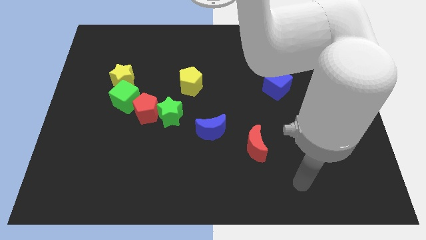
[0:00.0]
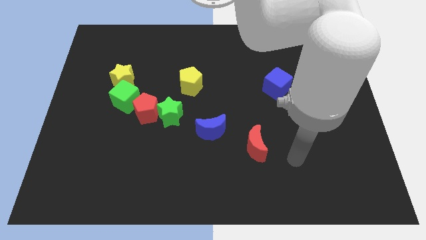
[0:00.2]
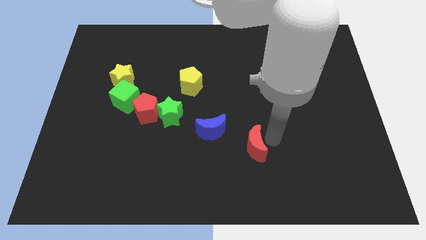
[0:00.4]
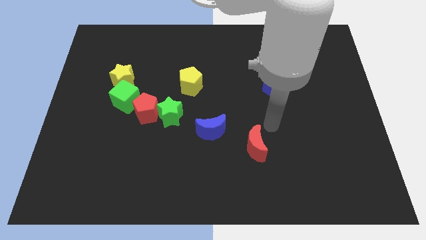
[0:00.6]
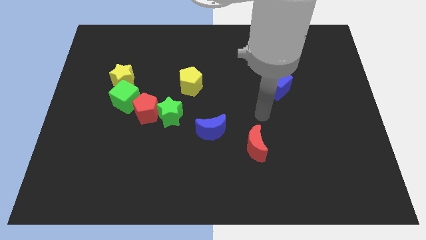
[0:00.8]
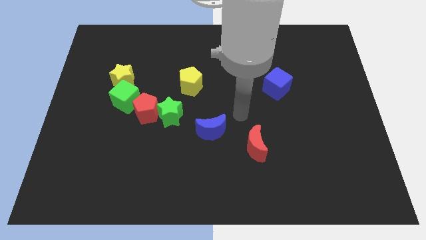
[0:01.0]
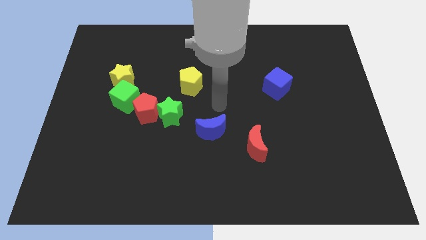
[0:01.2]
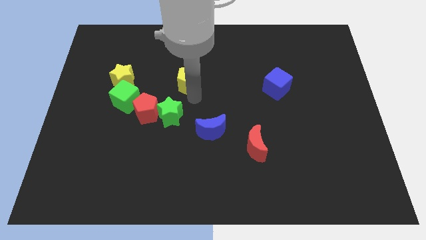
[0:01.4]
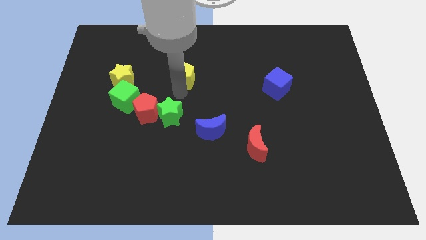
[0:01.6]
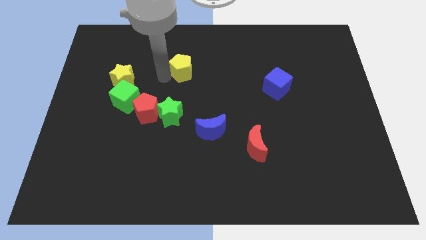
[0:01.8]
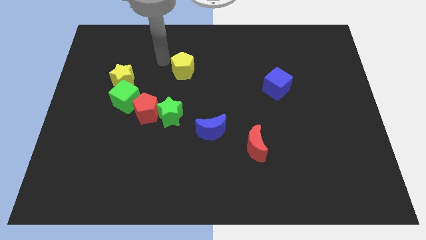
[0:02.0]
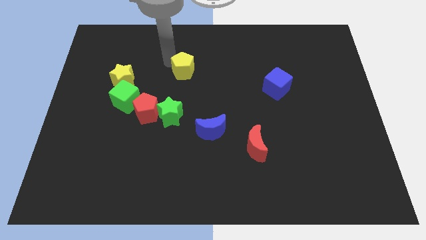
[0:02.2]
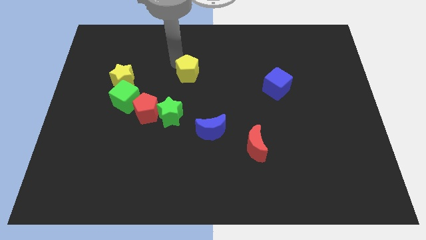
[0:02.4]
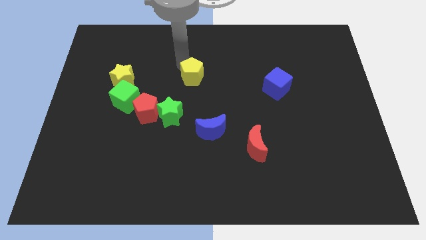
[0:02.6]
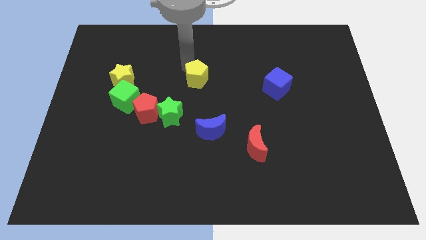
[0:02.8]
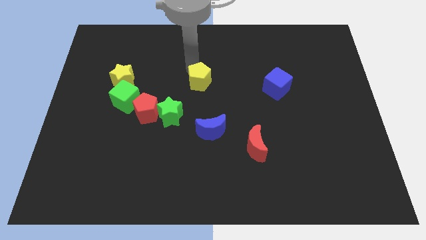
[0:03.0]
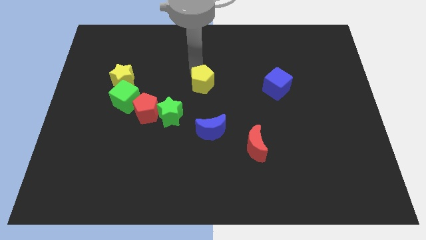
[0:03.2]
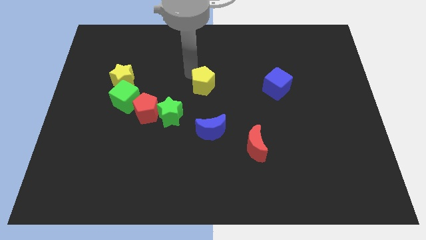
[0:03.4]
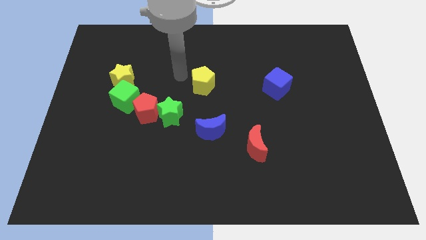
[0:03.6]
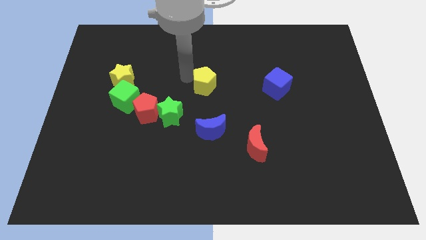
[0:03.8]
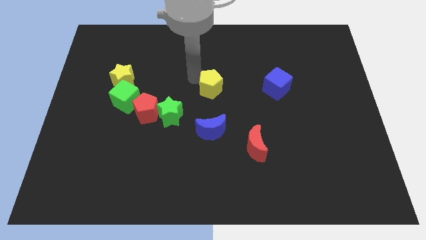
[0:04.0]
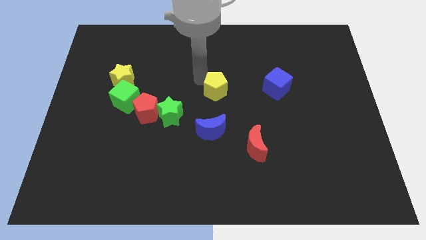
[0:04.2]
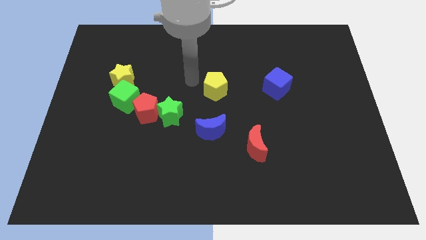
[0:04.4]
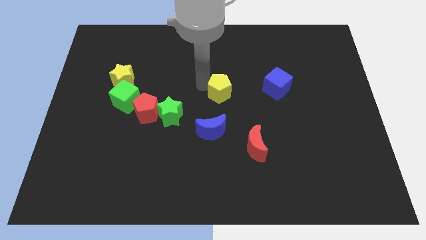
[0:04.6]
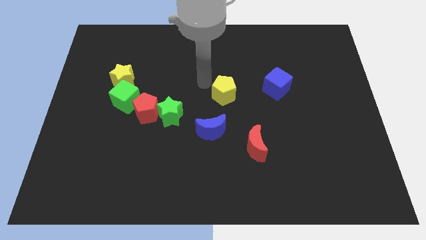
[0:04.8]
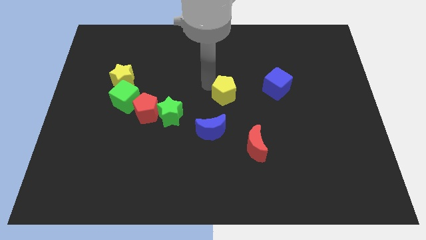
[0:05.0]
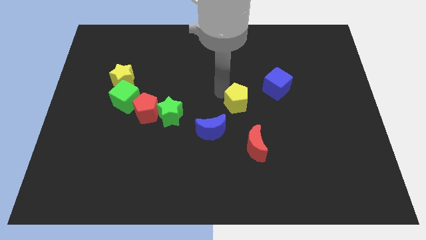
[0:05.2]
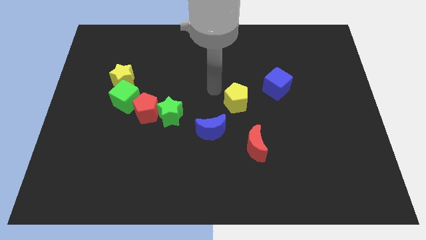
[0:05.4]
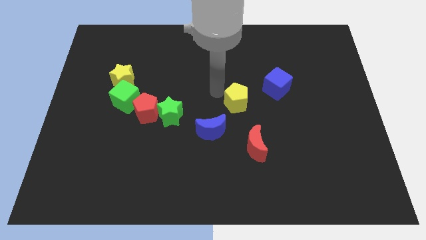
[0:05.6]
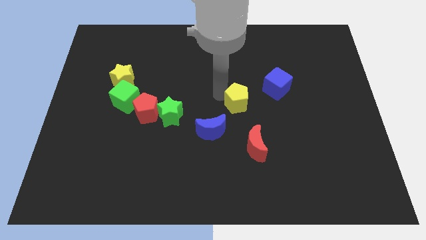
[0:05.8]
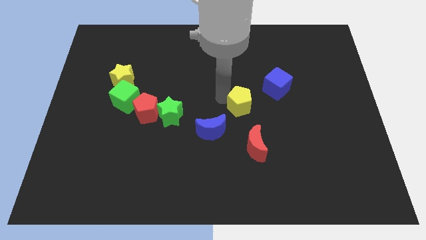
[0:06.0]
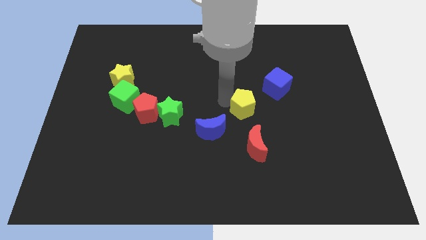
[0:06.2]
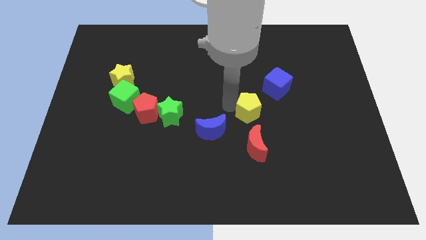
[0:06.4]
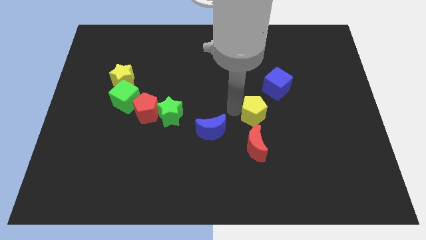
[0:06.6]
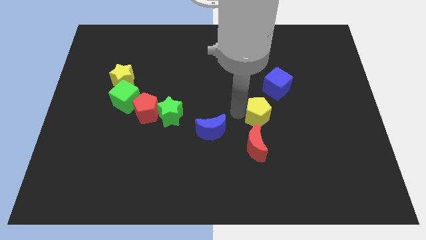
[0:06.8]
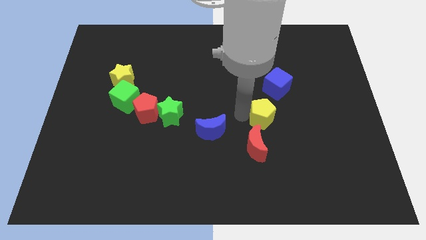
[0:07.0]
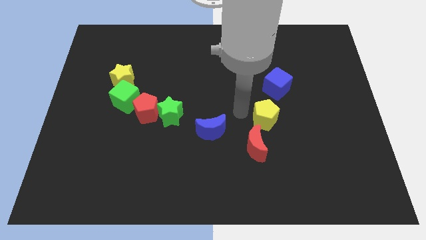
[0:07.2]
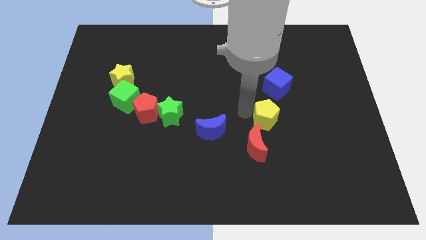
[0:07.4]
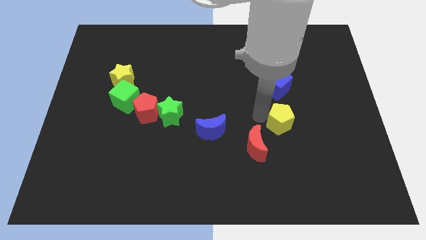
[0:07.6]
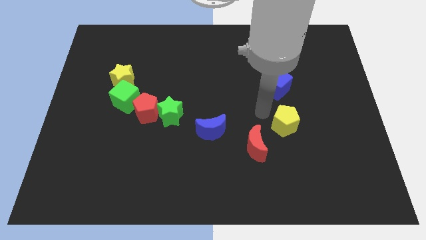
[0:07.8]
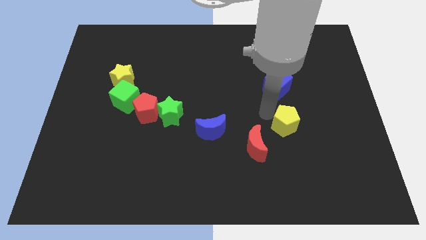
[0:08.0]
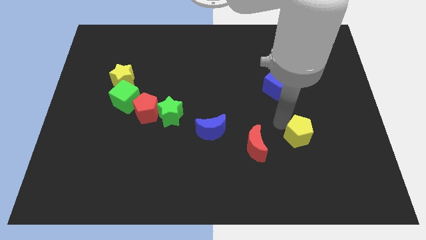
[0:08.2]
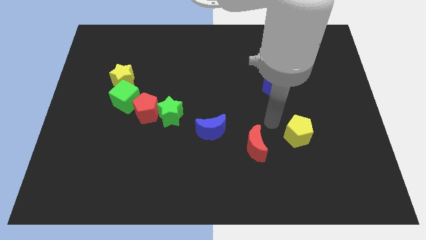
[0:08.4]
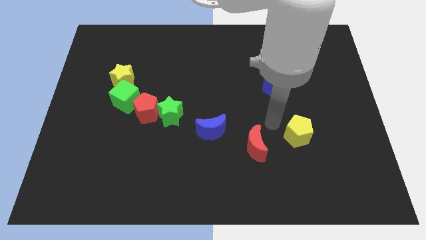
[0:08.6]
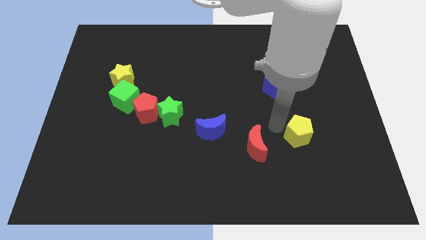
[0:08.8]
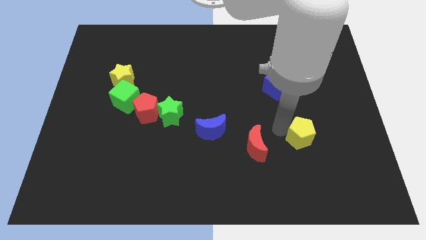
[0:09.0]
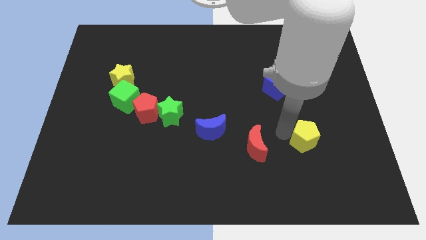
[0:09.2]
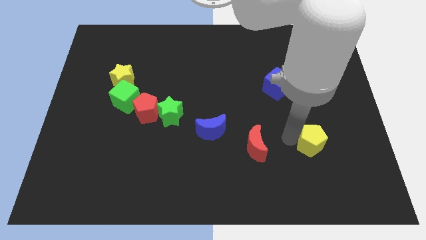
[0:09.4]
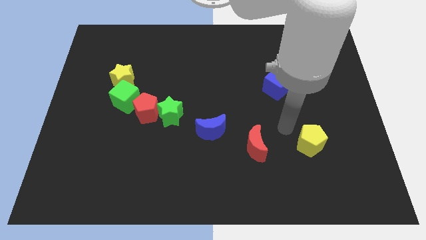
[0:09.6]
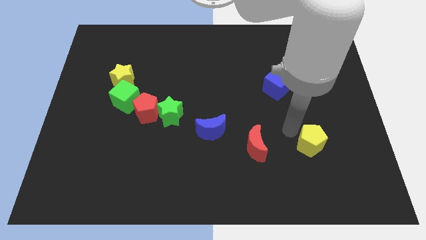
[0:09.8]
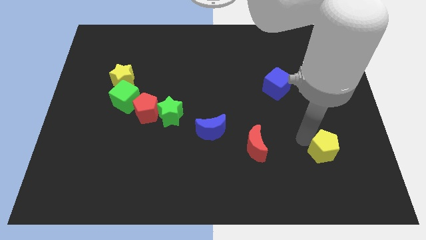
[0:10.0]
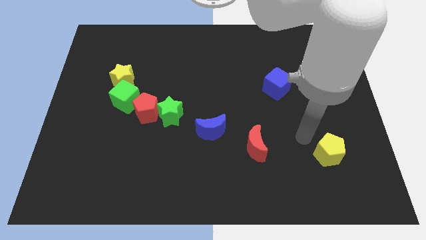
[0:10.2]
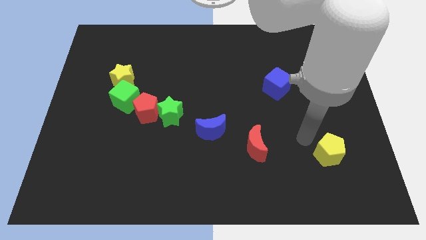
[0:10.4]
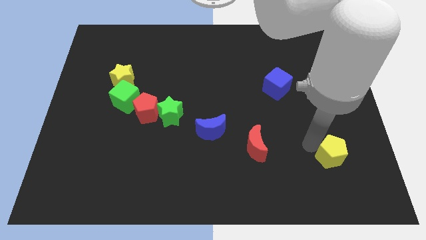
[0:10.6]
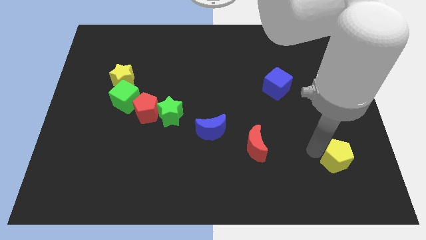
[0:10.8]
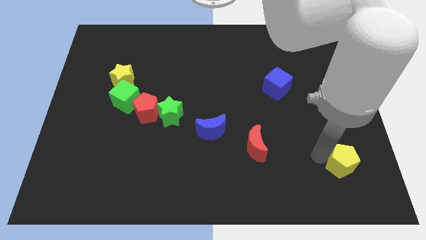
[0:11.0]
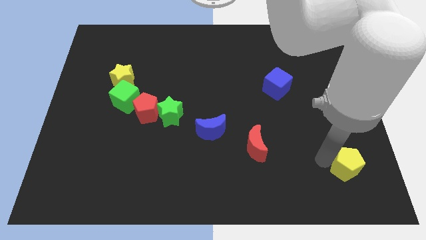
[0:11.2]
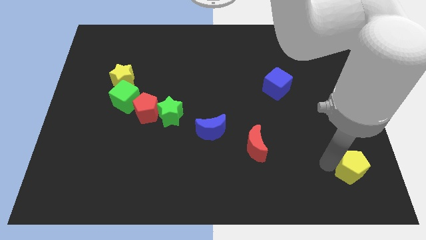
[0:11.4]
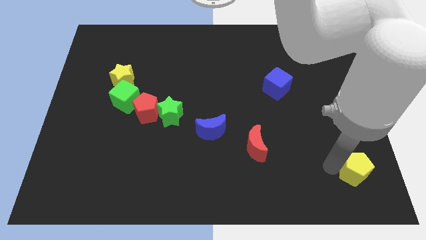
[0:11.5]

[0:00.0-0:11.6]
put the yellow pentagon to the lower right corner
